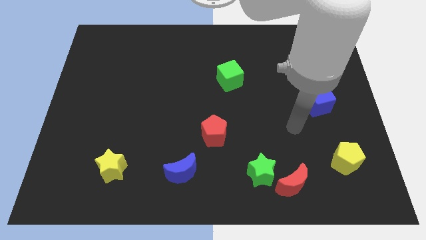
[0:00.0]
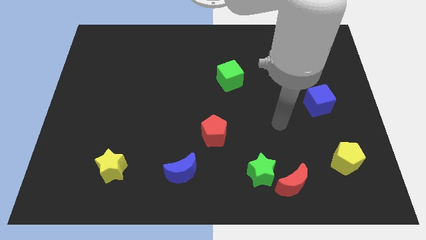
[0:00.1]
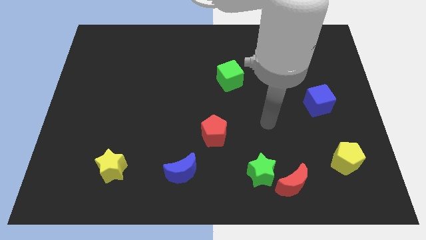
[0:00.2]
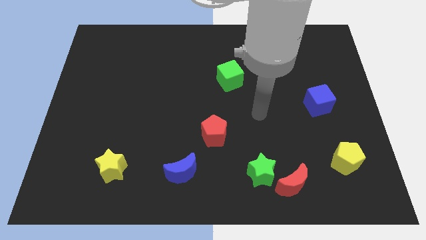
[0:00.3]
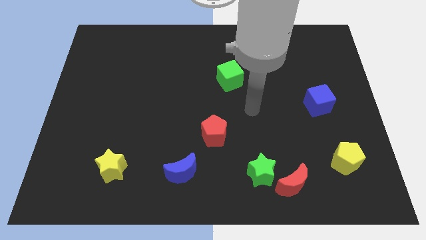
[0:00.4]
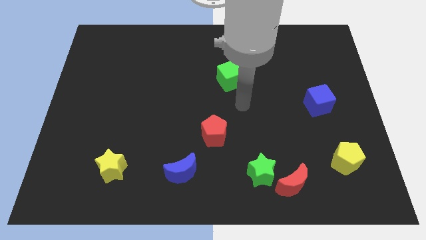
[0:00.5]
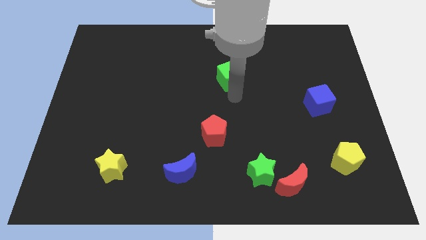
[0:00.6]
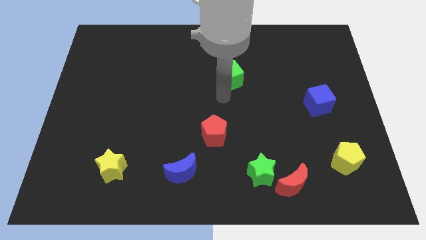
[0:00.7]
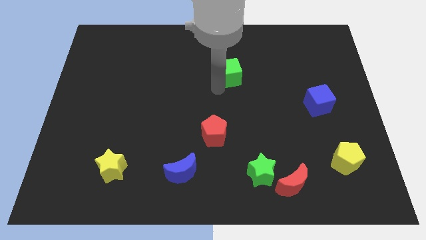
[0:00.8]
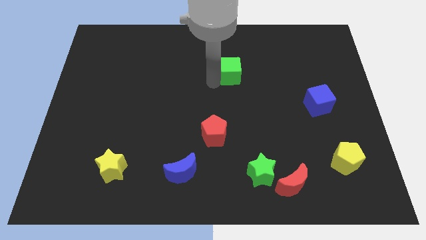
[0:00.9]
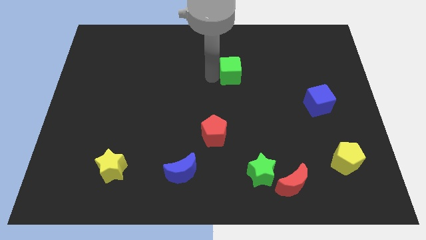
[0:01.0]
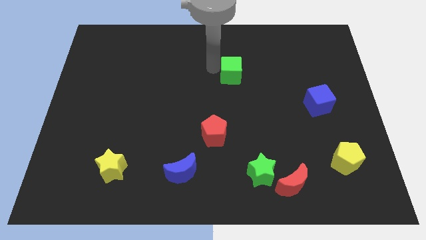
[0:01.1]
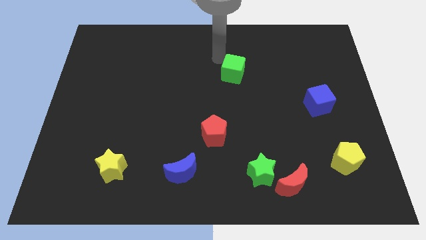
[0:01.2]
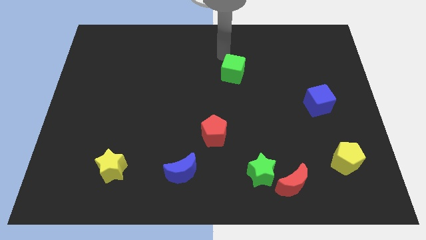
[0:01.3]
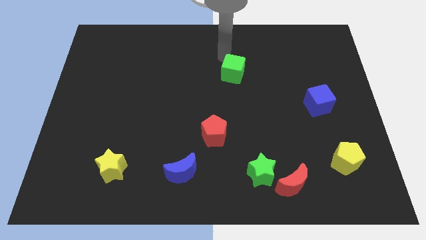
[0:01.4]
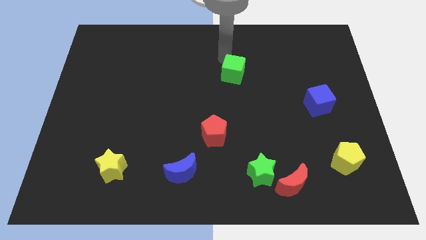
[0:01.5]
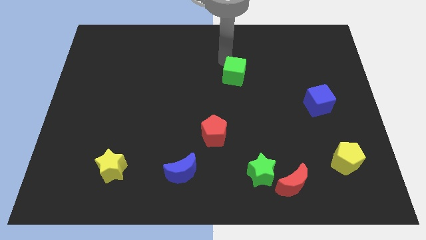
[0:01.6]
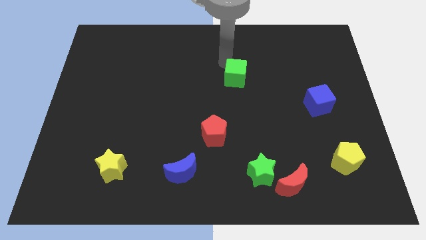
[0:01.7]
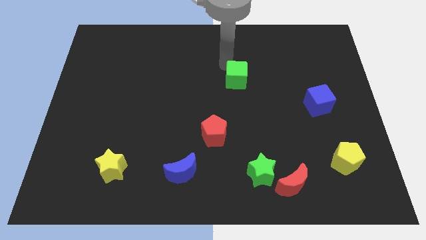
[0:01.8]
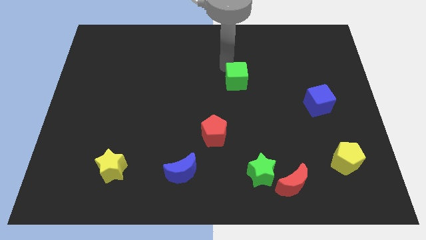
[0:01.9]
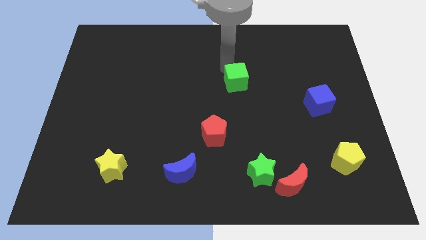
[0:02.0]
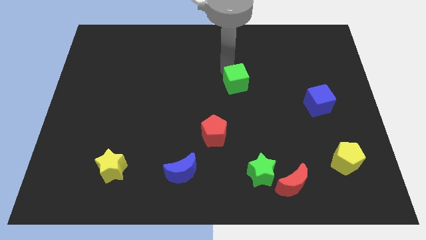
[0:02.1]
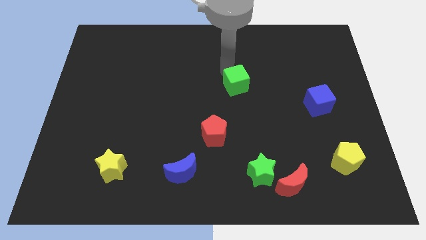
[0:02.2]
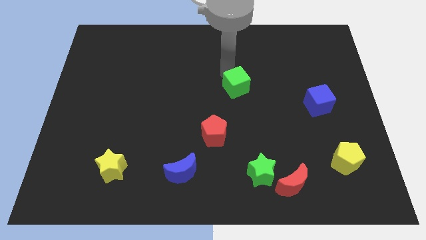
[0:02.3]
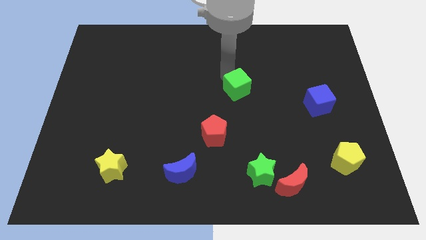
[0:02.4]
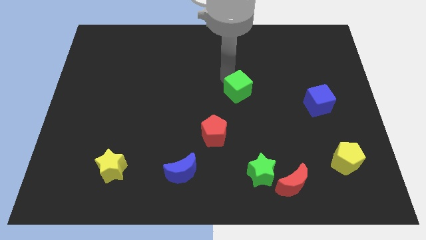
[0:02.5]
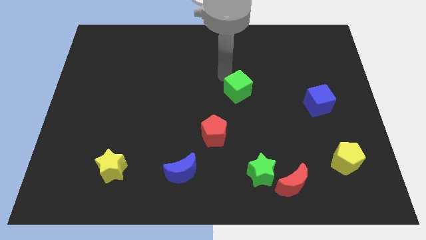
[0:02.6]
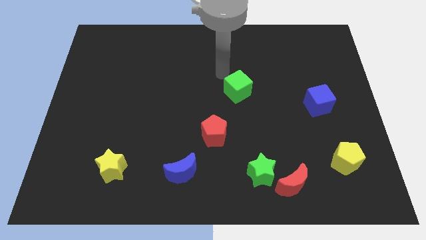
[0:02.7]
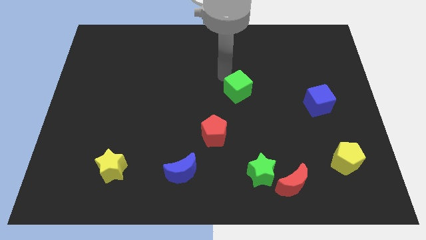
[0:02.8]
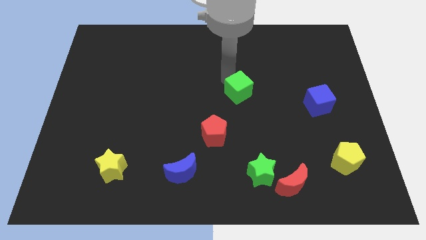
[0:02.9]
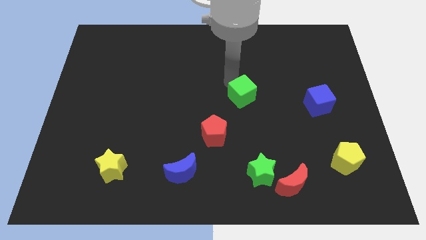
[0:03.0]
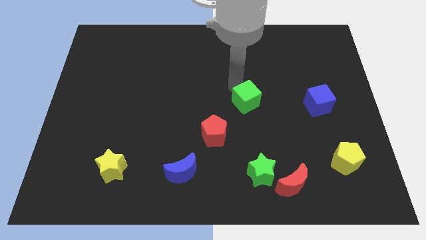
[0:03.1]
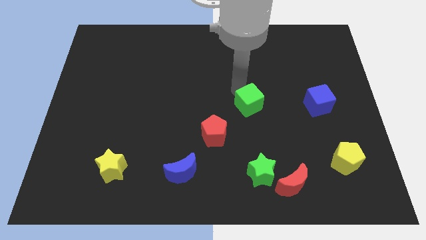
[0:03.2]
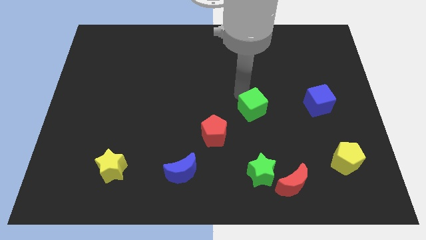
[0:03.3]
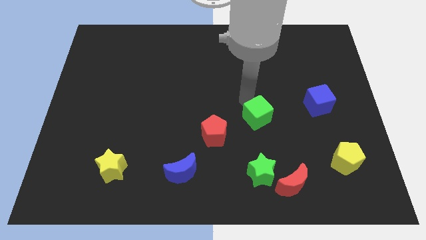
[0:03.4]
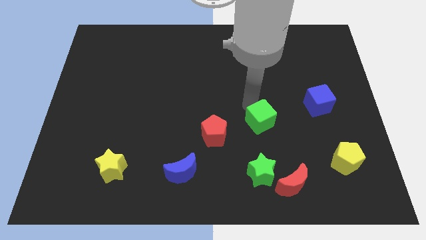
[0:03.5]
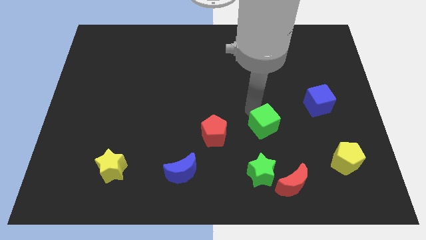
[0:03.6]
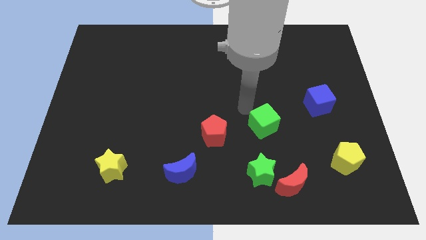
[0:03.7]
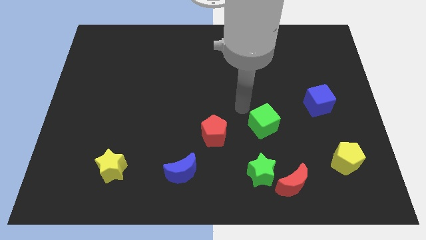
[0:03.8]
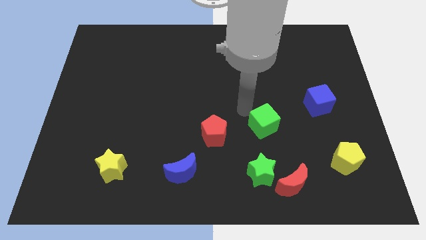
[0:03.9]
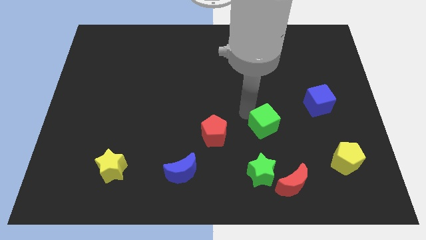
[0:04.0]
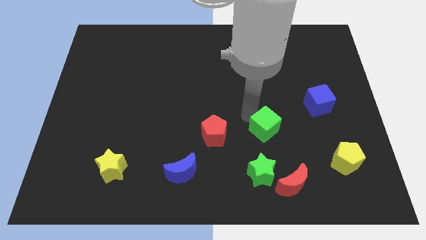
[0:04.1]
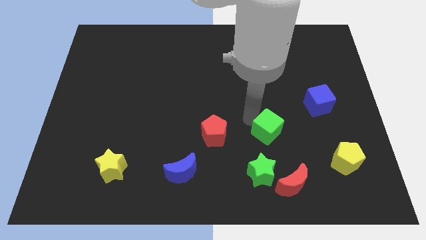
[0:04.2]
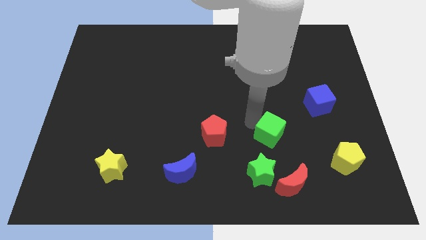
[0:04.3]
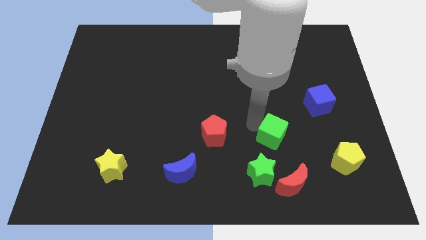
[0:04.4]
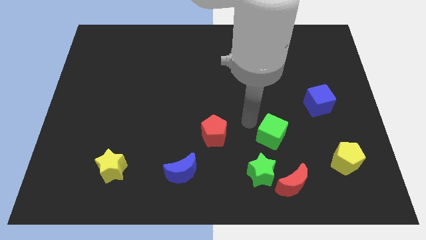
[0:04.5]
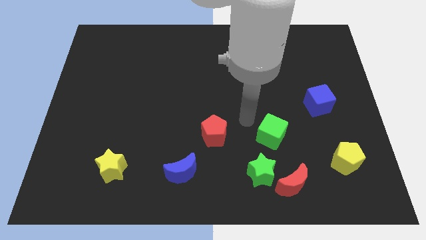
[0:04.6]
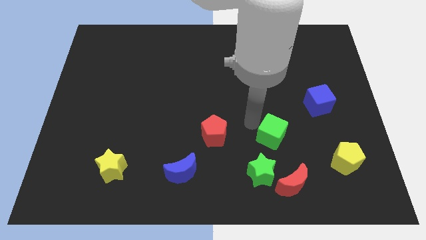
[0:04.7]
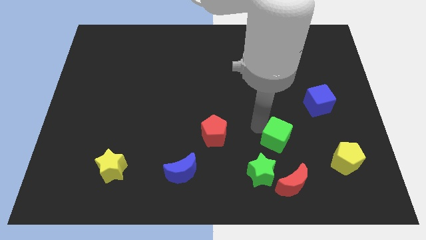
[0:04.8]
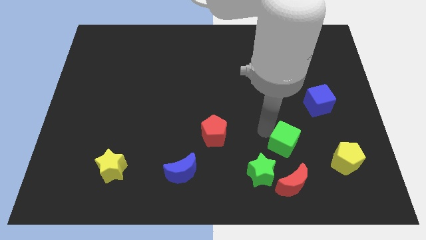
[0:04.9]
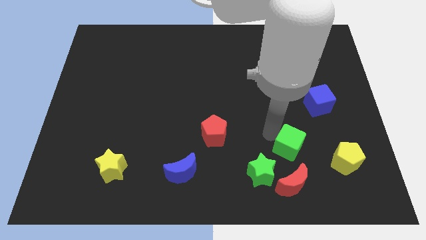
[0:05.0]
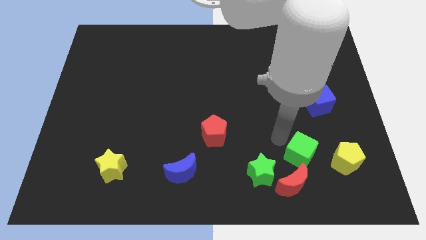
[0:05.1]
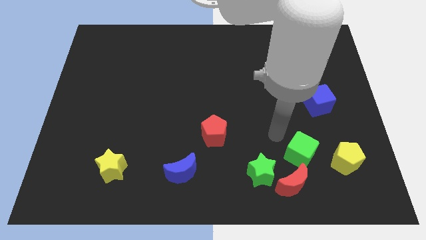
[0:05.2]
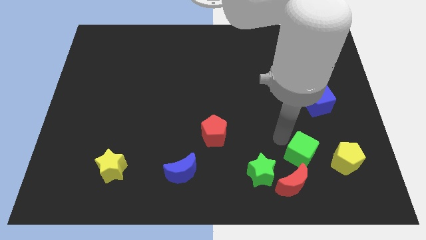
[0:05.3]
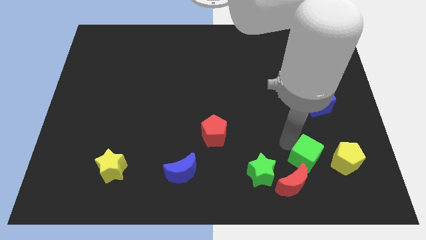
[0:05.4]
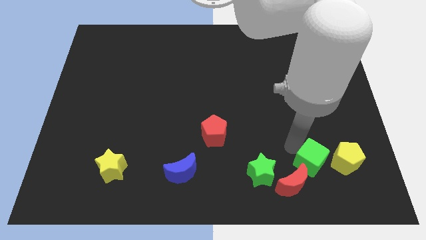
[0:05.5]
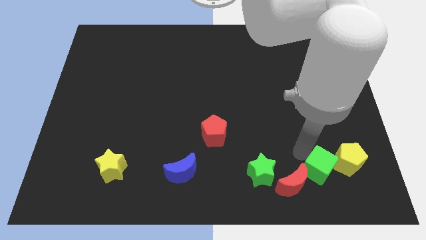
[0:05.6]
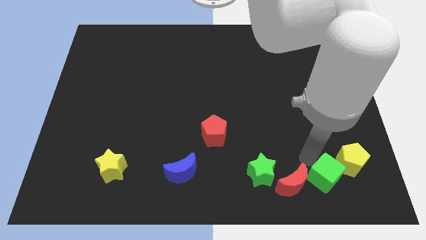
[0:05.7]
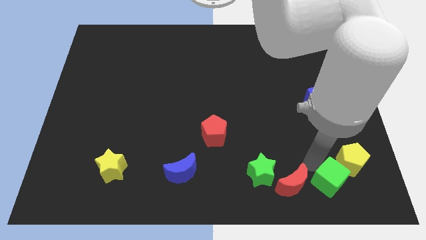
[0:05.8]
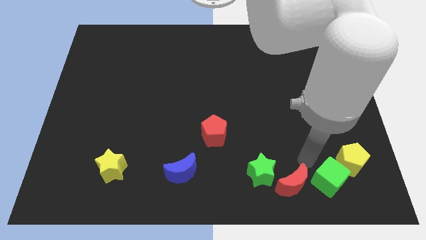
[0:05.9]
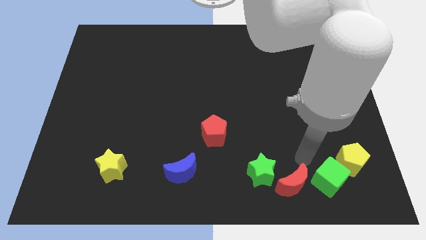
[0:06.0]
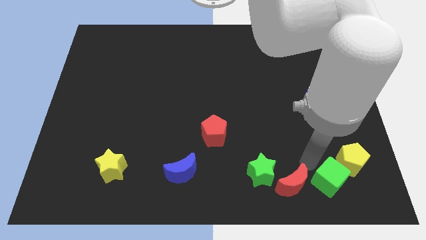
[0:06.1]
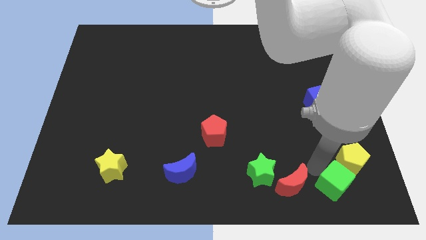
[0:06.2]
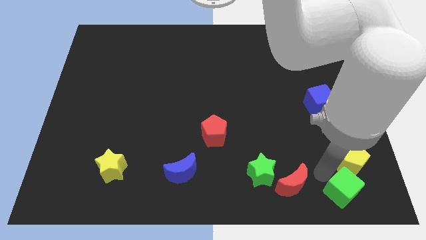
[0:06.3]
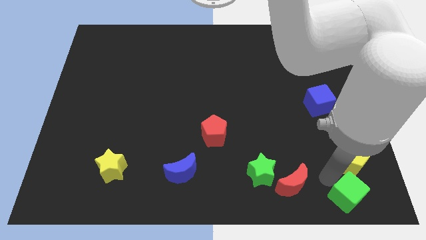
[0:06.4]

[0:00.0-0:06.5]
move the green cube to the bottom right corner

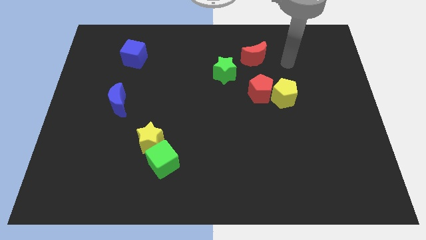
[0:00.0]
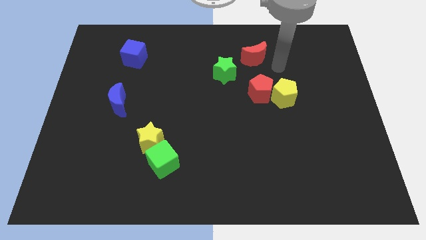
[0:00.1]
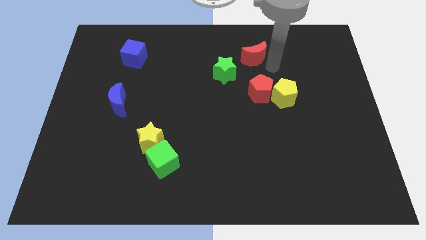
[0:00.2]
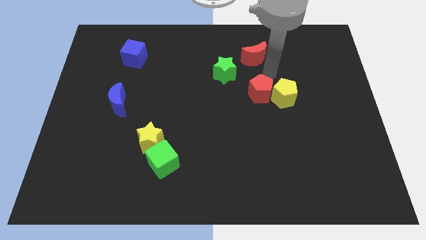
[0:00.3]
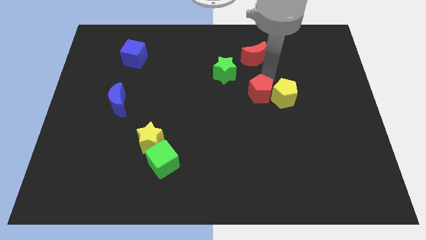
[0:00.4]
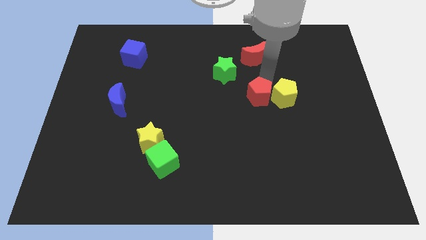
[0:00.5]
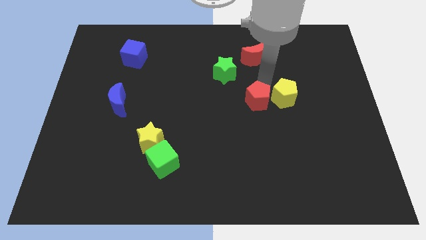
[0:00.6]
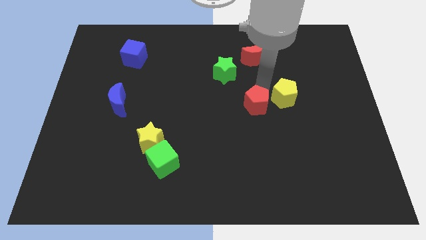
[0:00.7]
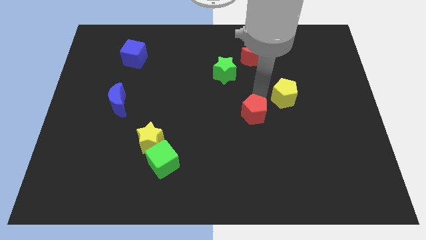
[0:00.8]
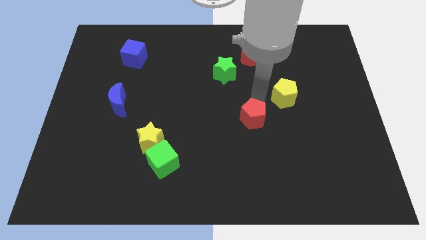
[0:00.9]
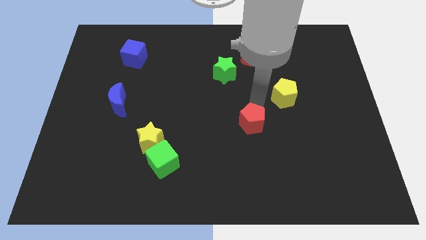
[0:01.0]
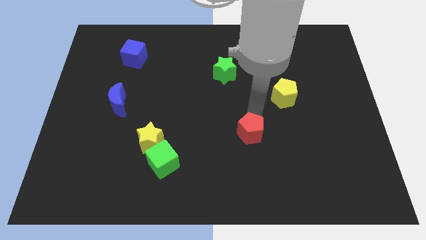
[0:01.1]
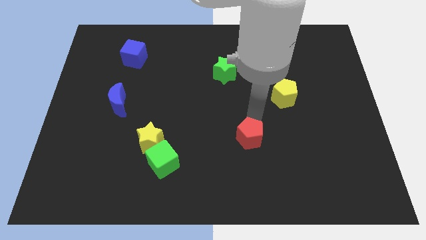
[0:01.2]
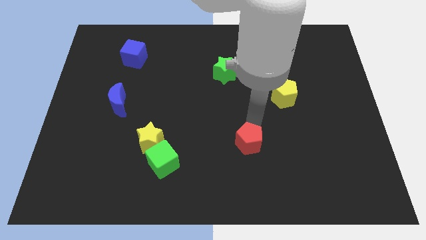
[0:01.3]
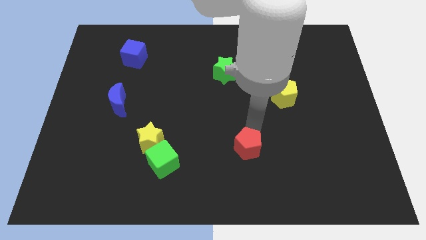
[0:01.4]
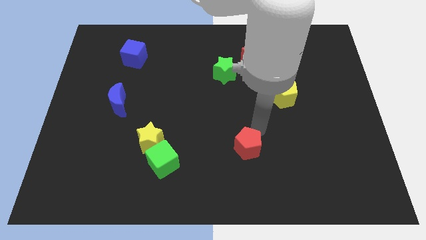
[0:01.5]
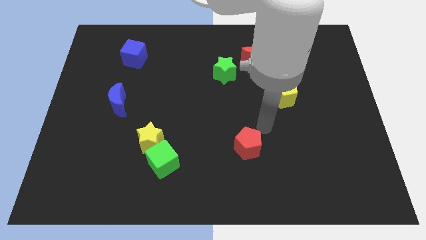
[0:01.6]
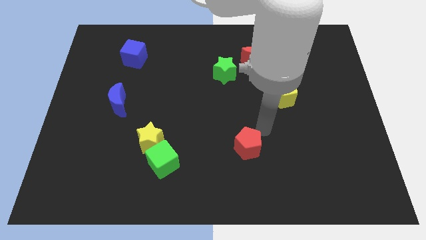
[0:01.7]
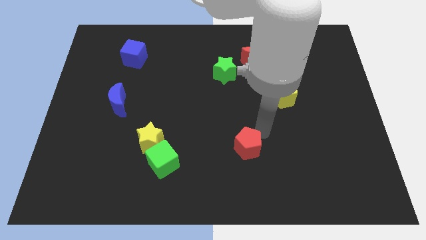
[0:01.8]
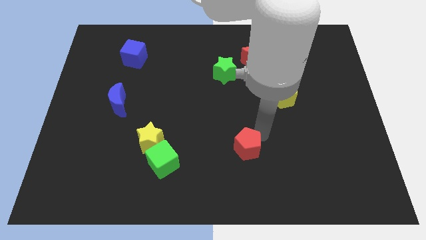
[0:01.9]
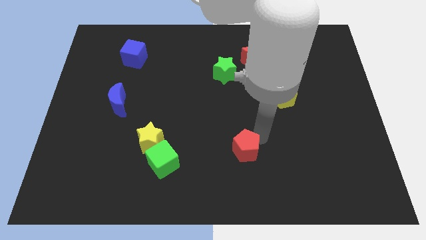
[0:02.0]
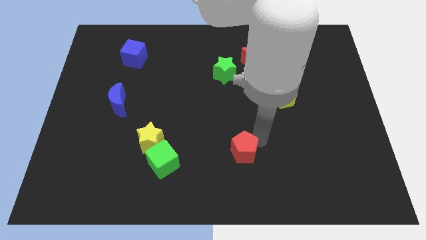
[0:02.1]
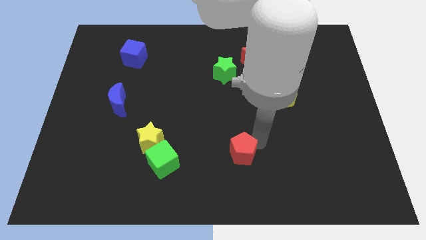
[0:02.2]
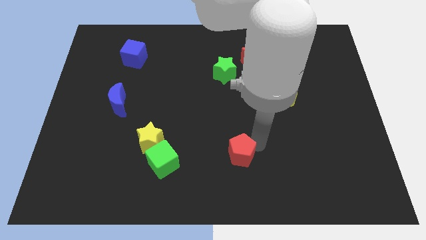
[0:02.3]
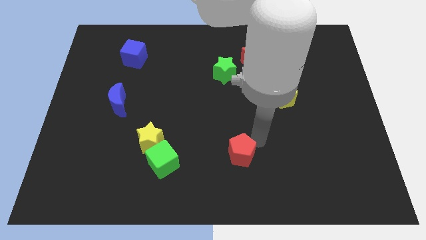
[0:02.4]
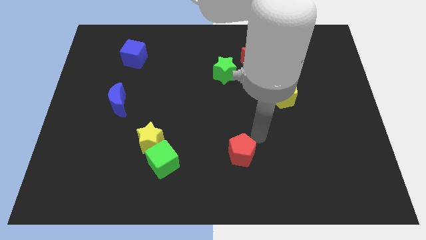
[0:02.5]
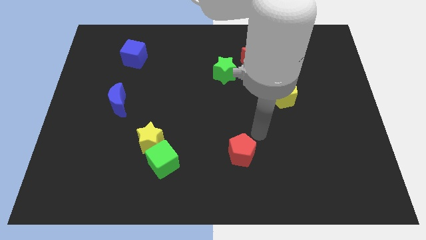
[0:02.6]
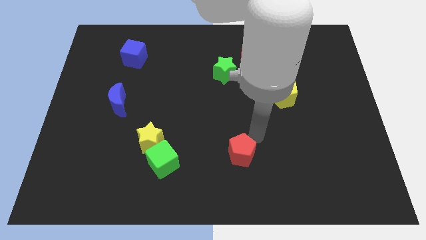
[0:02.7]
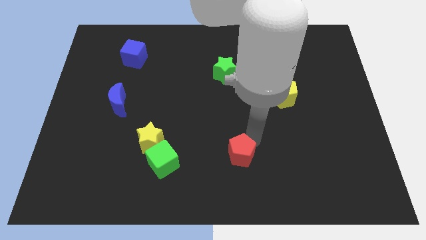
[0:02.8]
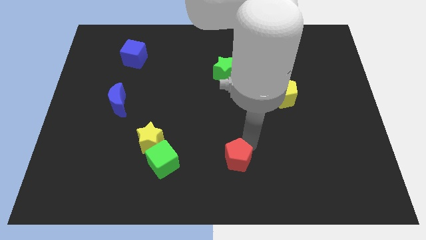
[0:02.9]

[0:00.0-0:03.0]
slide the red pentagon to the bottom side
